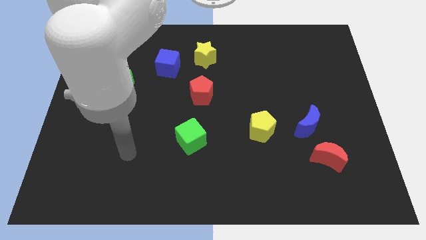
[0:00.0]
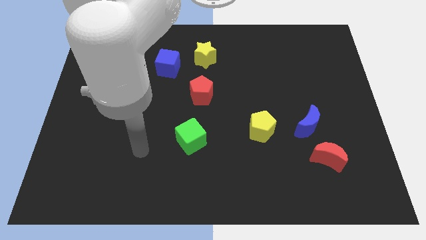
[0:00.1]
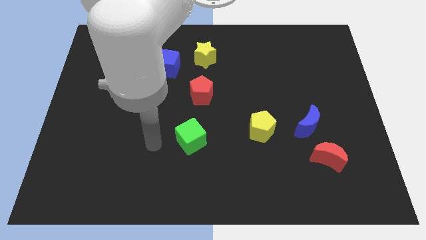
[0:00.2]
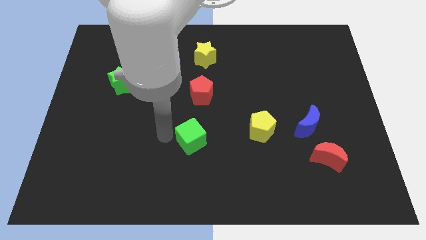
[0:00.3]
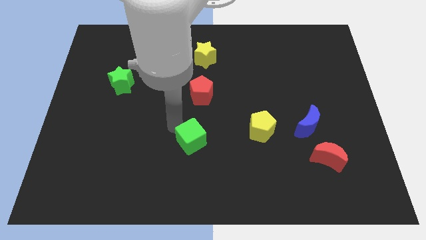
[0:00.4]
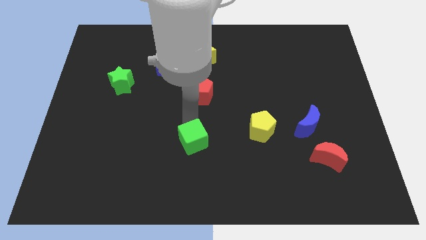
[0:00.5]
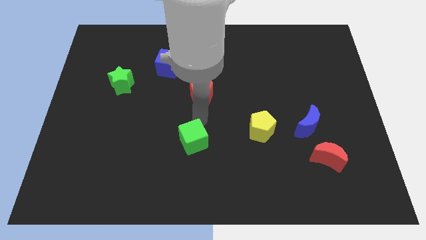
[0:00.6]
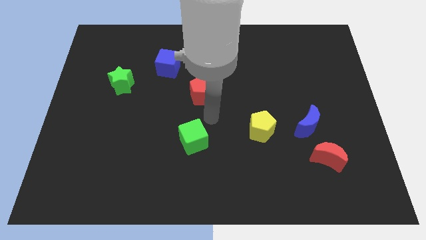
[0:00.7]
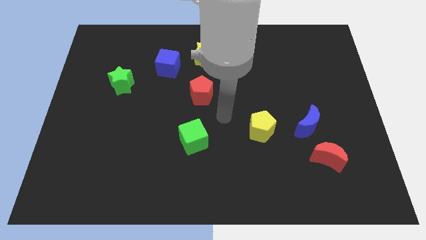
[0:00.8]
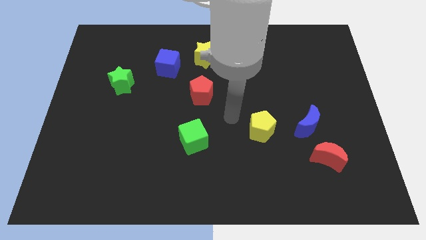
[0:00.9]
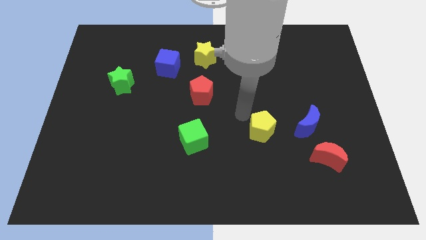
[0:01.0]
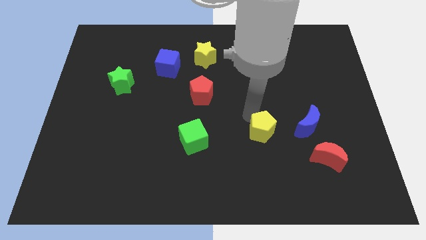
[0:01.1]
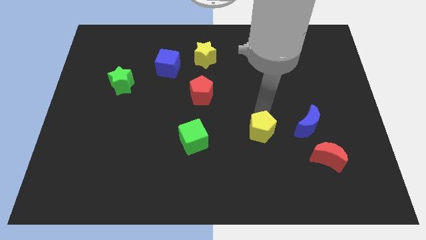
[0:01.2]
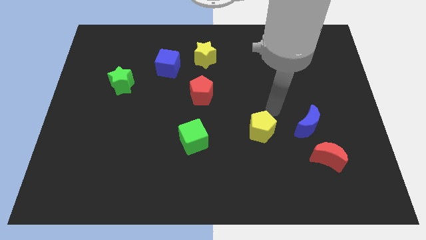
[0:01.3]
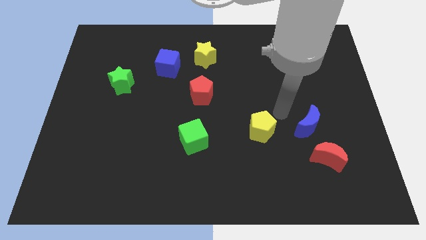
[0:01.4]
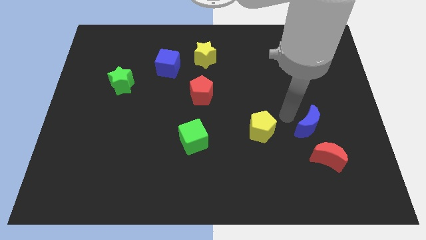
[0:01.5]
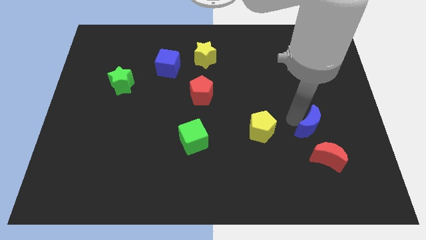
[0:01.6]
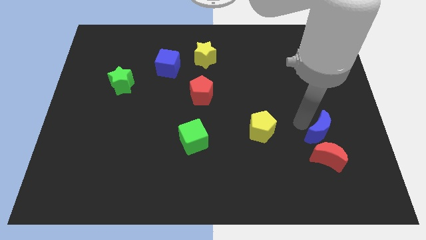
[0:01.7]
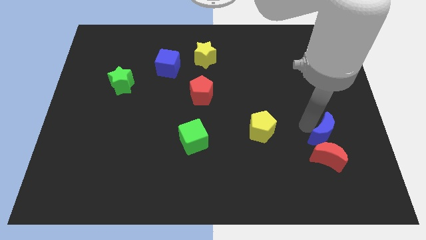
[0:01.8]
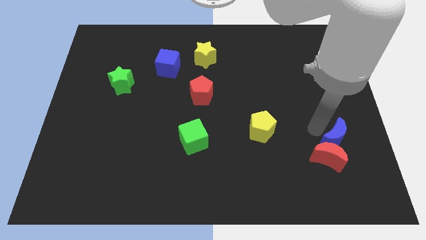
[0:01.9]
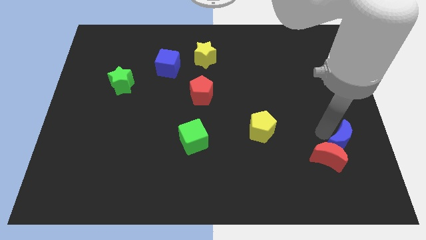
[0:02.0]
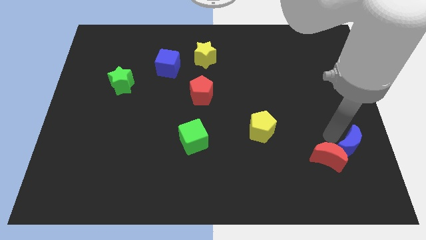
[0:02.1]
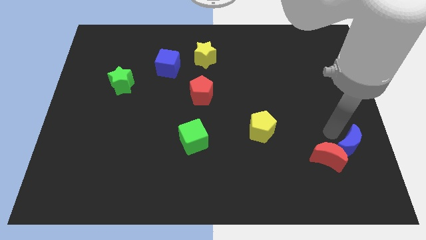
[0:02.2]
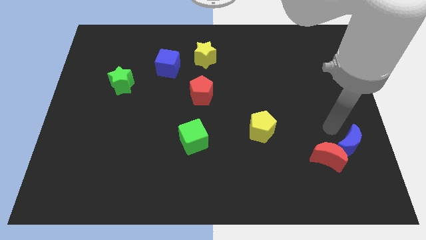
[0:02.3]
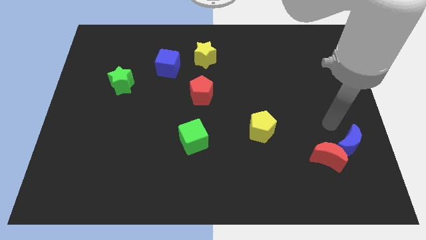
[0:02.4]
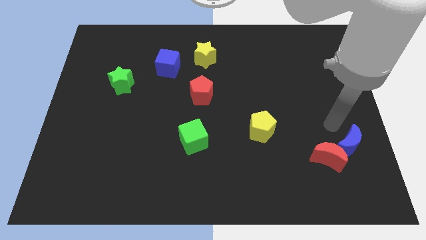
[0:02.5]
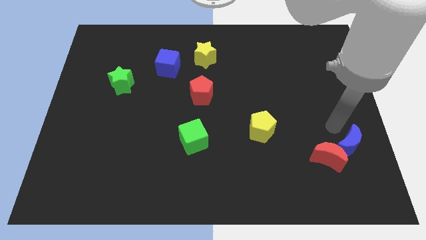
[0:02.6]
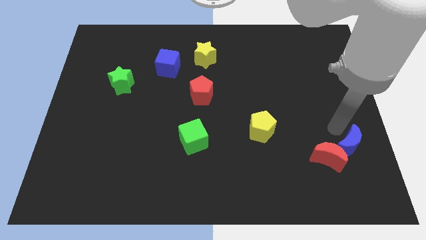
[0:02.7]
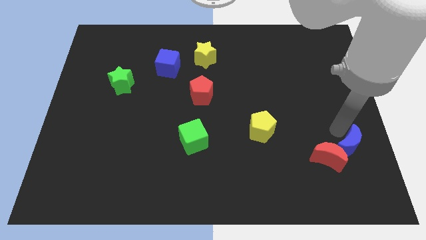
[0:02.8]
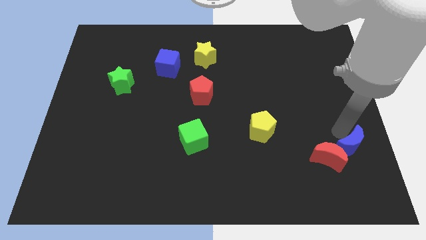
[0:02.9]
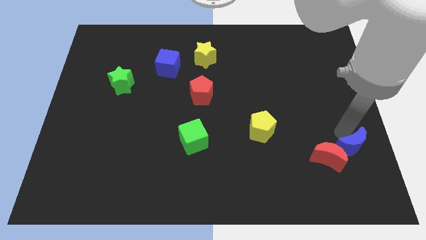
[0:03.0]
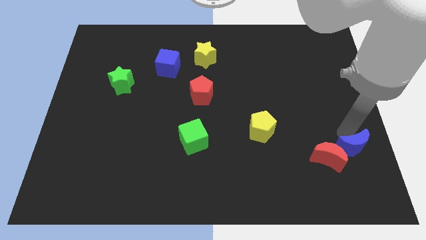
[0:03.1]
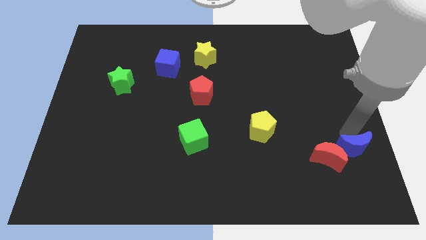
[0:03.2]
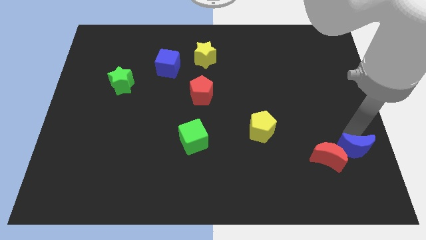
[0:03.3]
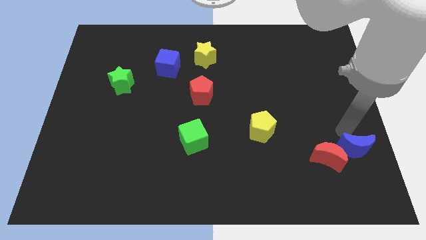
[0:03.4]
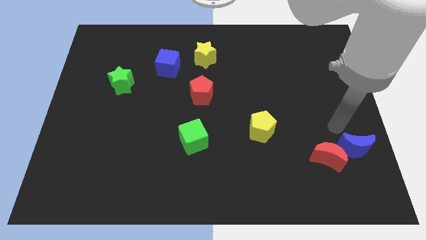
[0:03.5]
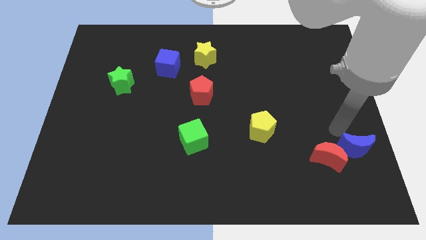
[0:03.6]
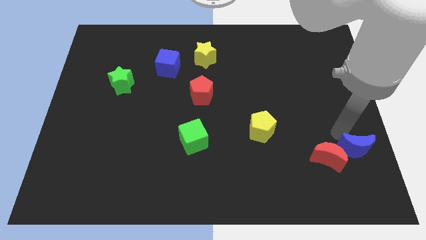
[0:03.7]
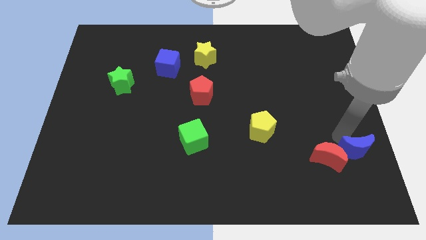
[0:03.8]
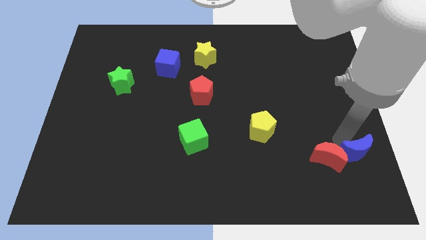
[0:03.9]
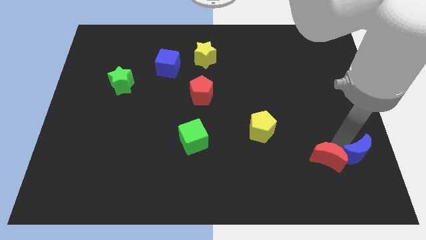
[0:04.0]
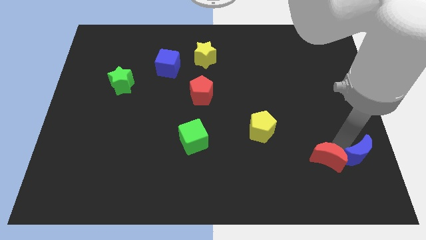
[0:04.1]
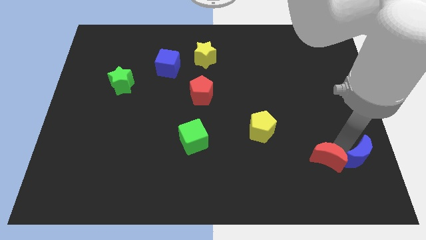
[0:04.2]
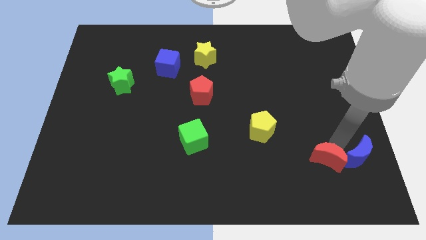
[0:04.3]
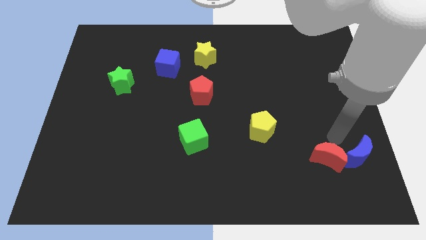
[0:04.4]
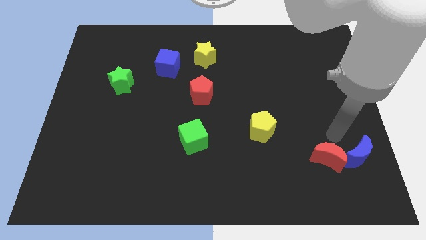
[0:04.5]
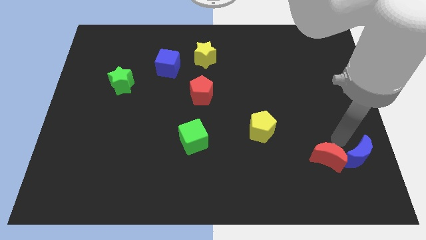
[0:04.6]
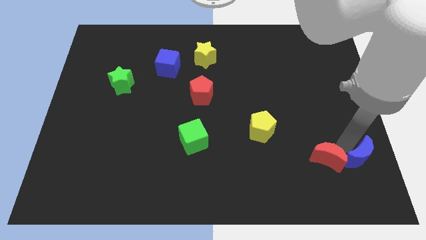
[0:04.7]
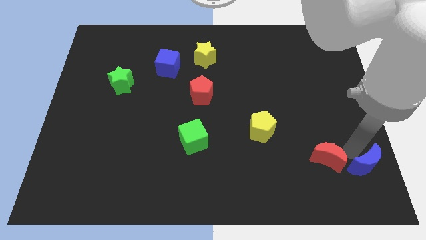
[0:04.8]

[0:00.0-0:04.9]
put the blue moon to the bottom right corner

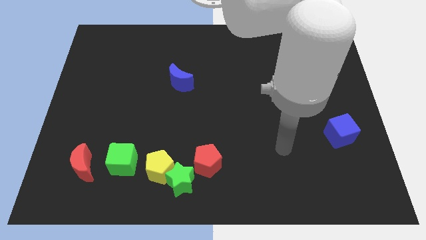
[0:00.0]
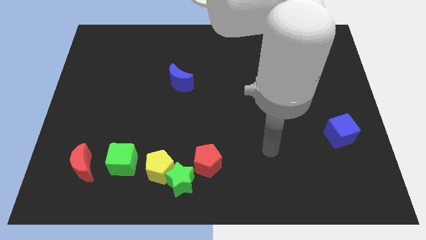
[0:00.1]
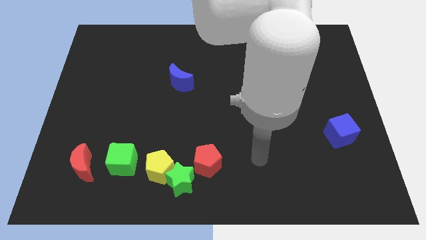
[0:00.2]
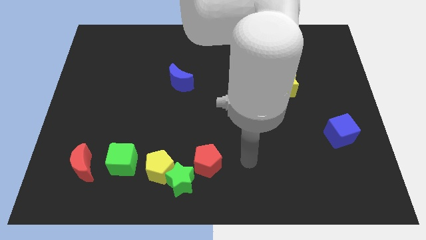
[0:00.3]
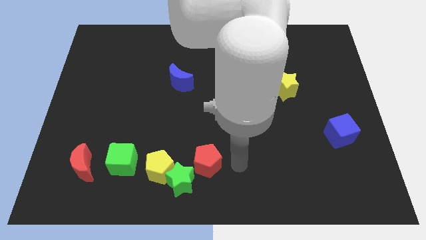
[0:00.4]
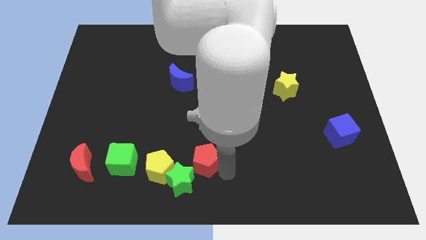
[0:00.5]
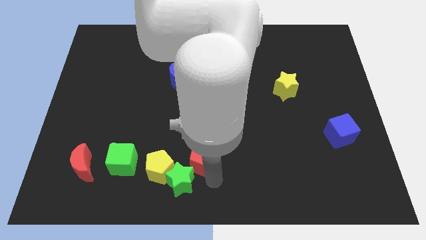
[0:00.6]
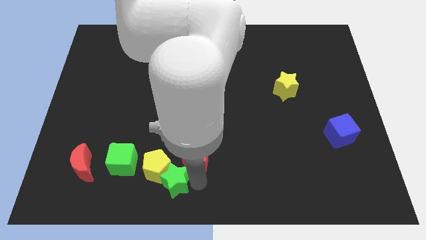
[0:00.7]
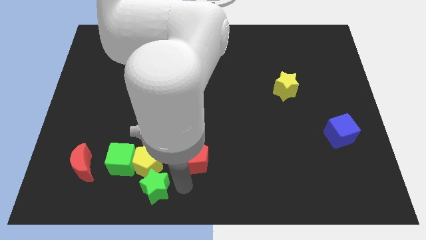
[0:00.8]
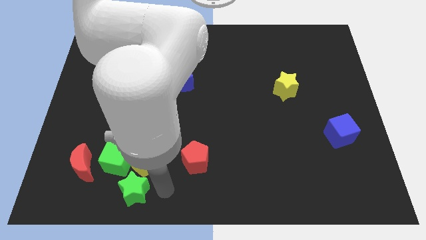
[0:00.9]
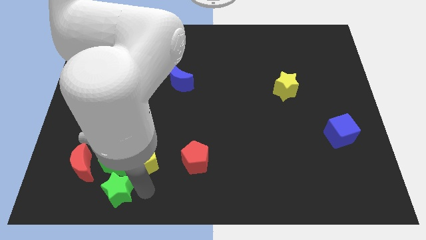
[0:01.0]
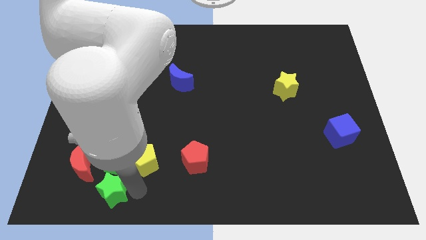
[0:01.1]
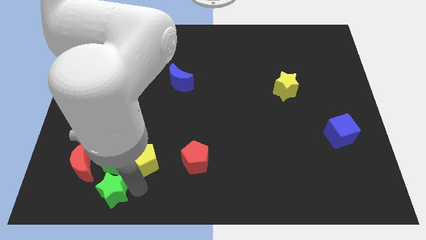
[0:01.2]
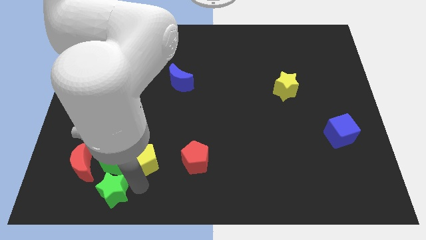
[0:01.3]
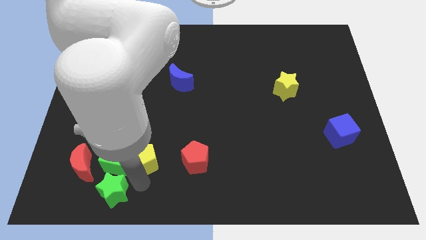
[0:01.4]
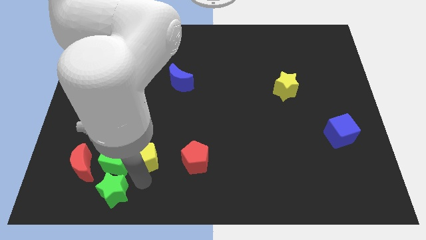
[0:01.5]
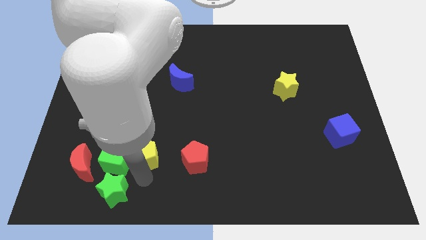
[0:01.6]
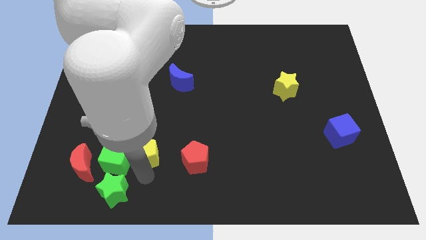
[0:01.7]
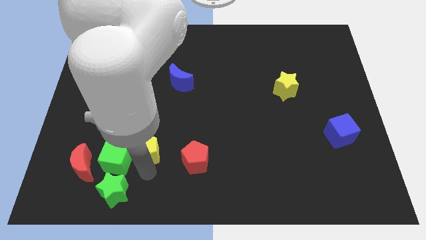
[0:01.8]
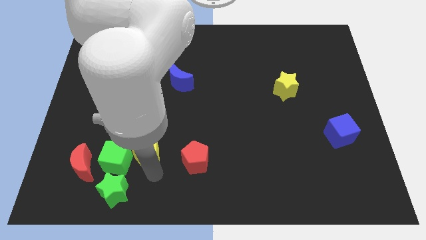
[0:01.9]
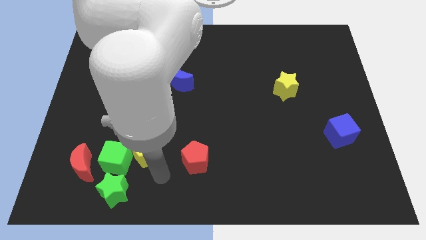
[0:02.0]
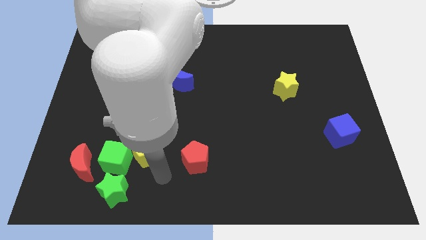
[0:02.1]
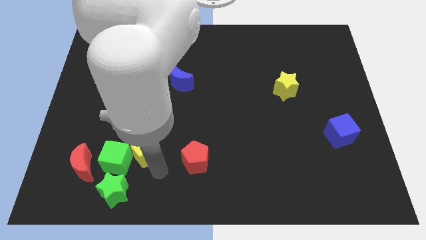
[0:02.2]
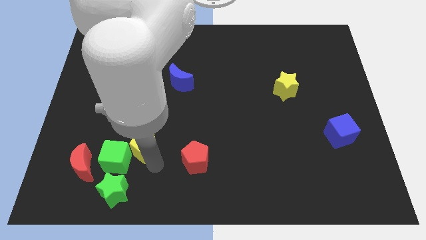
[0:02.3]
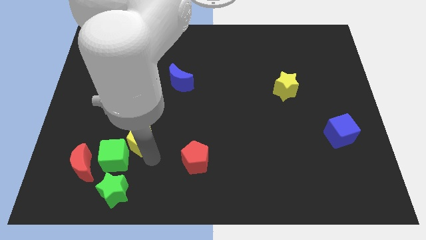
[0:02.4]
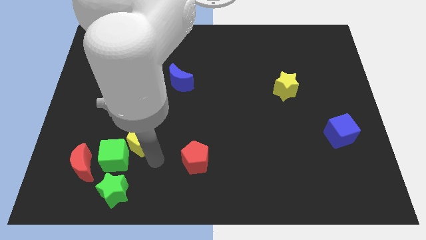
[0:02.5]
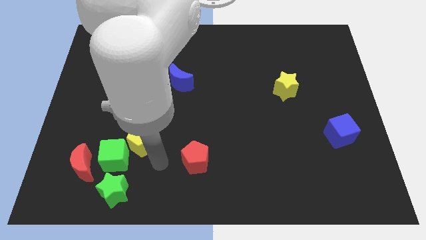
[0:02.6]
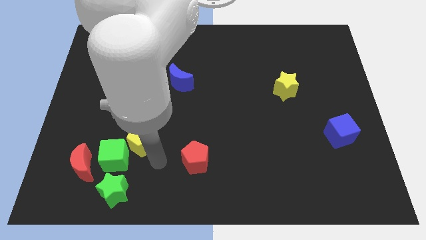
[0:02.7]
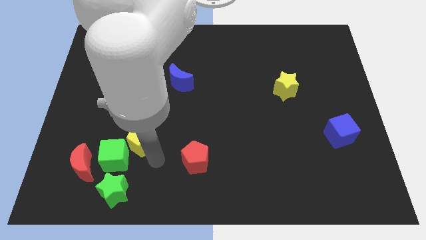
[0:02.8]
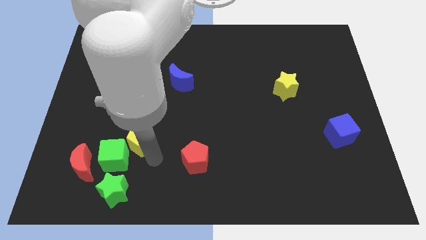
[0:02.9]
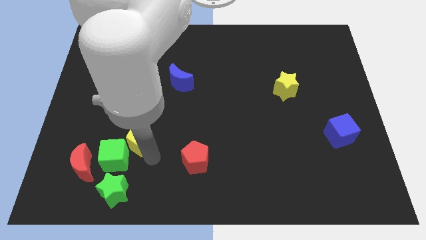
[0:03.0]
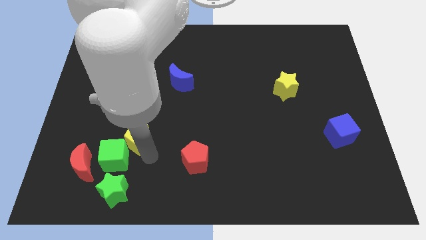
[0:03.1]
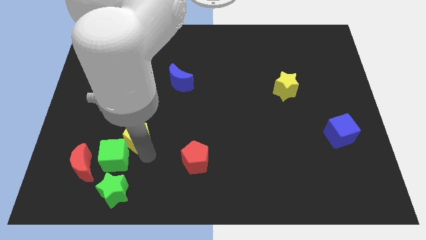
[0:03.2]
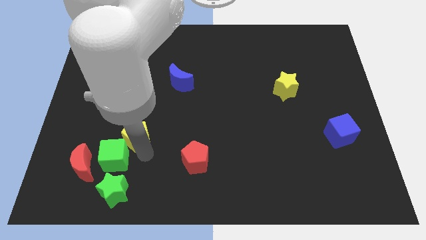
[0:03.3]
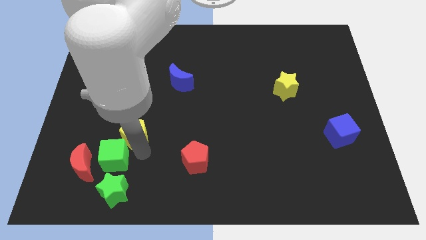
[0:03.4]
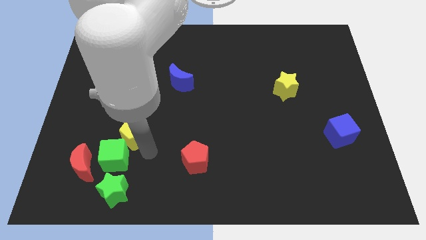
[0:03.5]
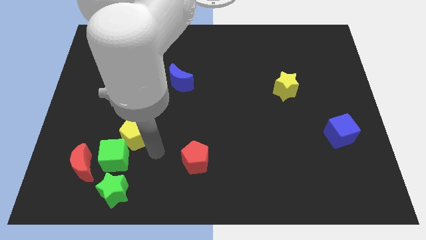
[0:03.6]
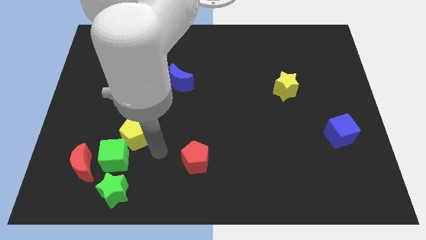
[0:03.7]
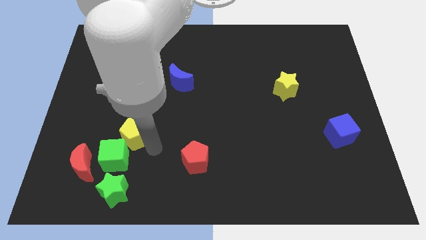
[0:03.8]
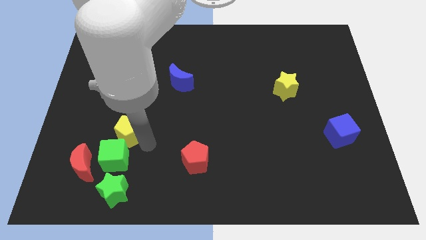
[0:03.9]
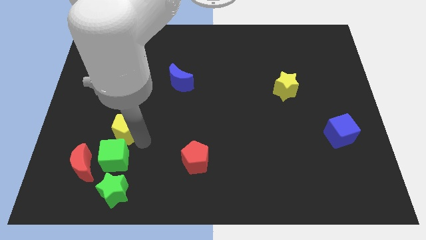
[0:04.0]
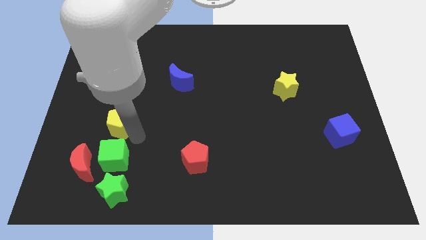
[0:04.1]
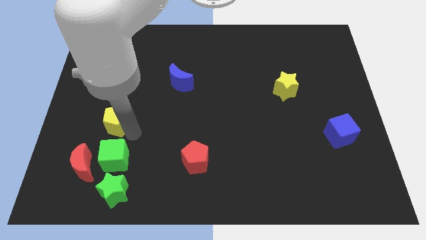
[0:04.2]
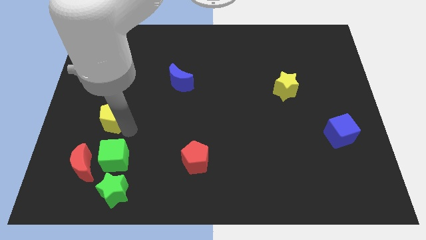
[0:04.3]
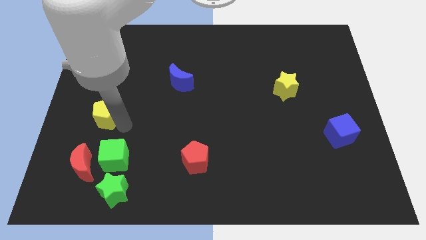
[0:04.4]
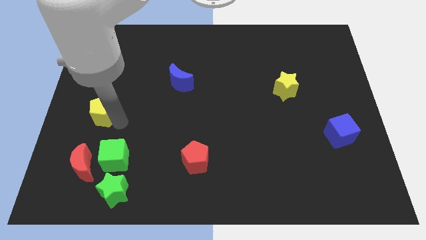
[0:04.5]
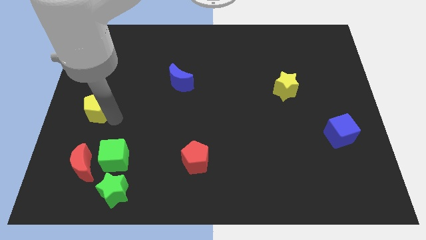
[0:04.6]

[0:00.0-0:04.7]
put the yellow pentagon to the center left
